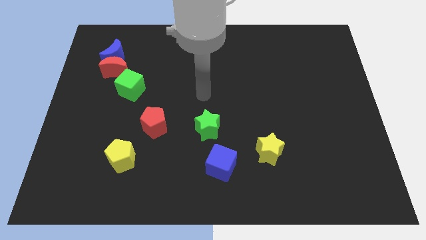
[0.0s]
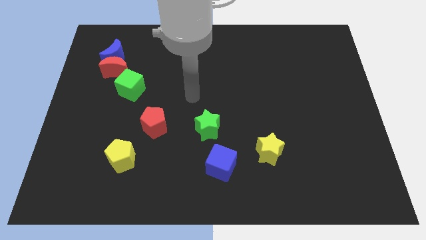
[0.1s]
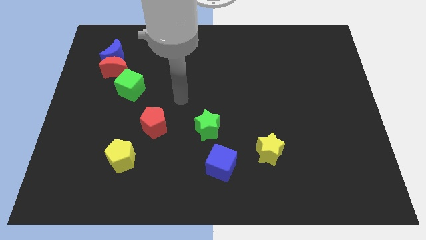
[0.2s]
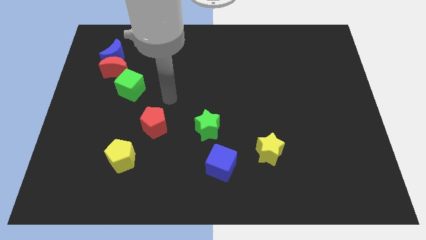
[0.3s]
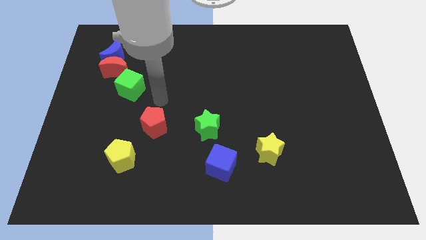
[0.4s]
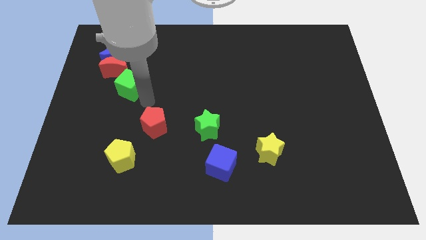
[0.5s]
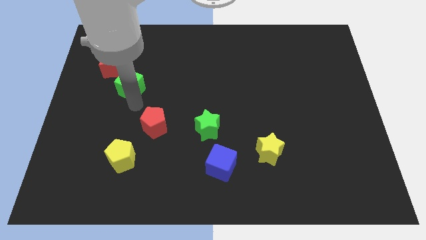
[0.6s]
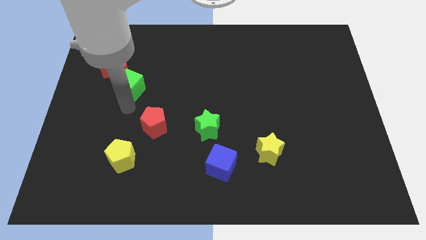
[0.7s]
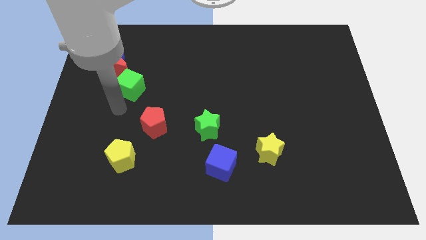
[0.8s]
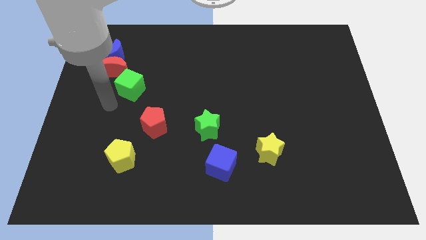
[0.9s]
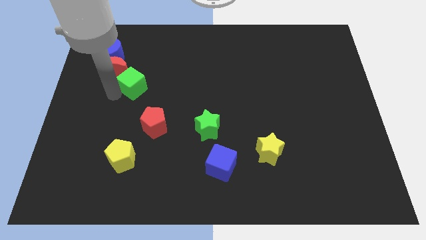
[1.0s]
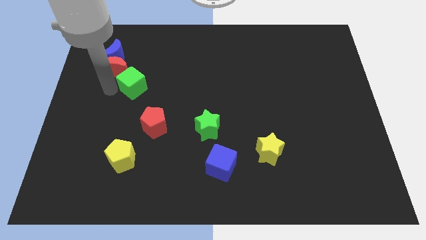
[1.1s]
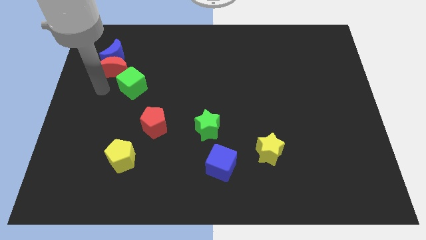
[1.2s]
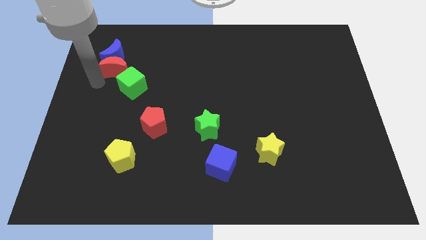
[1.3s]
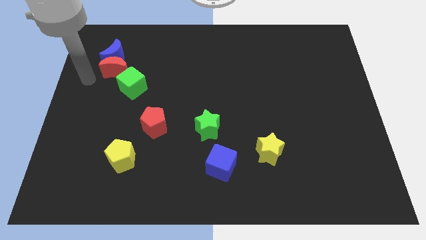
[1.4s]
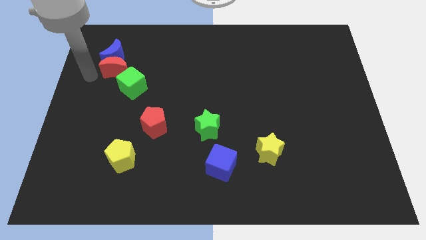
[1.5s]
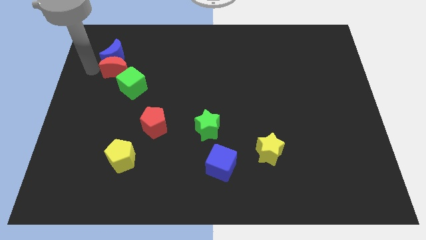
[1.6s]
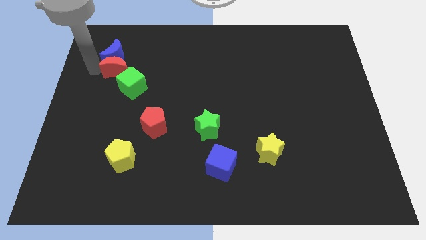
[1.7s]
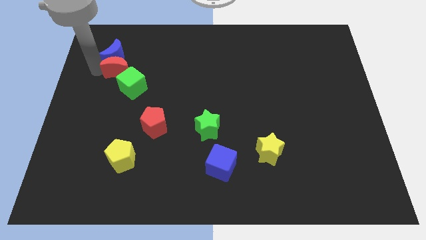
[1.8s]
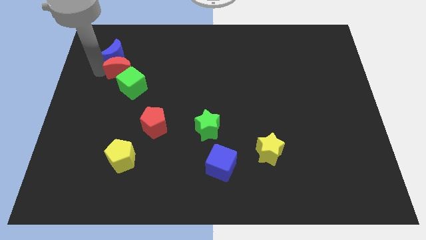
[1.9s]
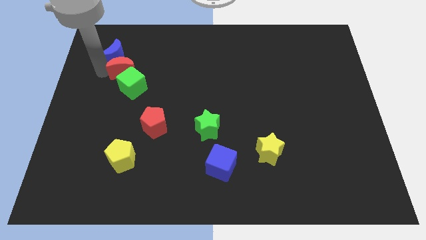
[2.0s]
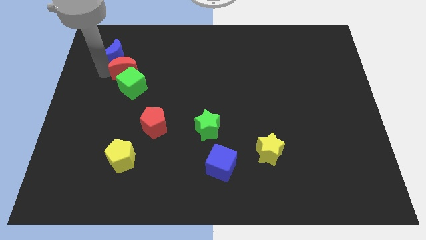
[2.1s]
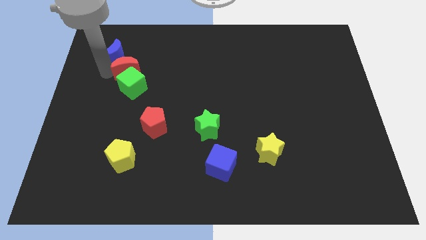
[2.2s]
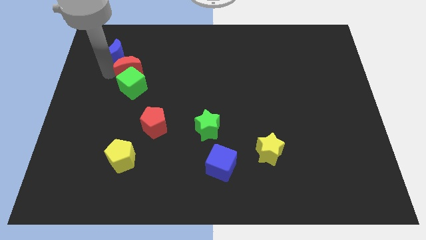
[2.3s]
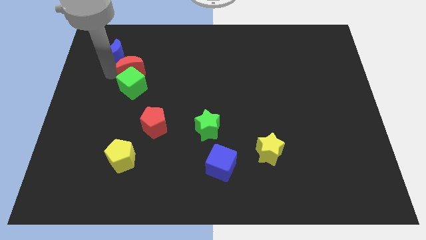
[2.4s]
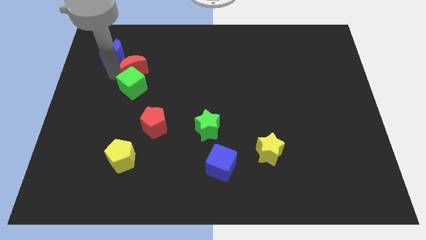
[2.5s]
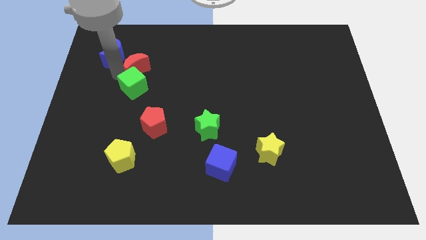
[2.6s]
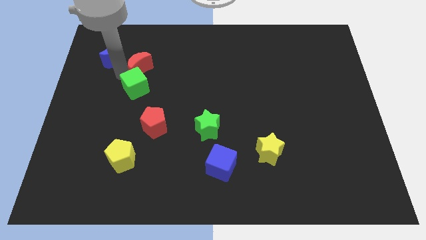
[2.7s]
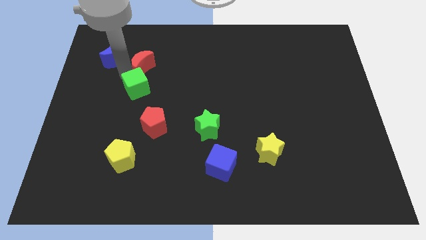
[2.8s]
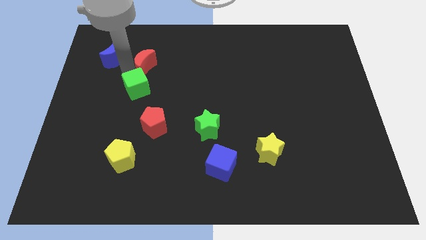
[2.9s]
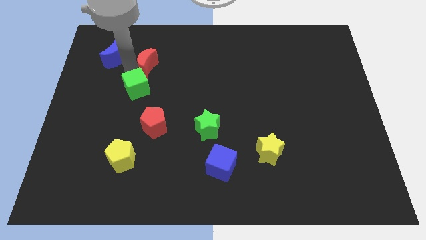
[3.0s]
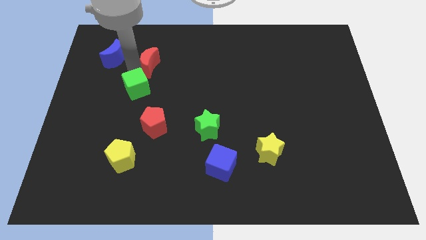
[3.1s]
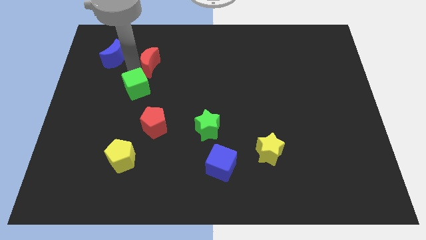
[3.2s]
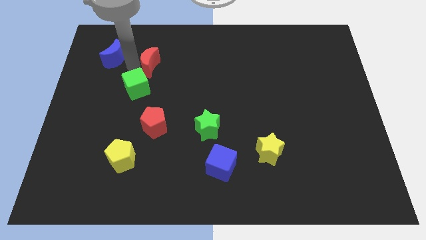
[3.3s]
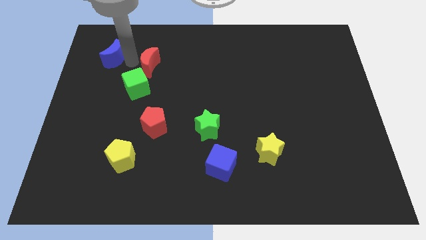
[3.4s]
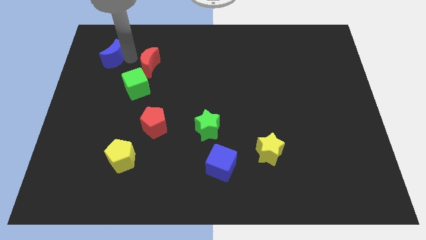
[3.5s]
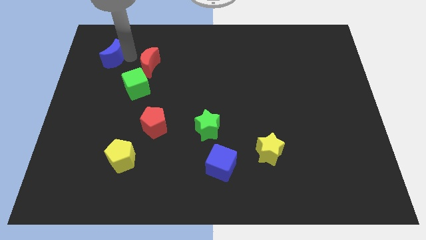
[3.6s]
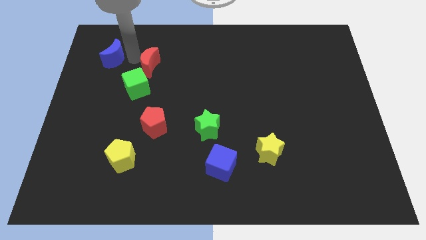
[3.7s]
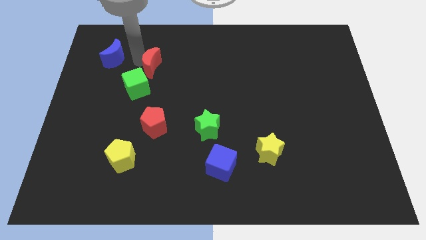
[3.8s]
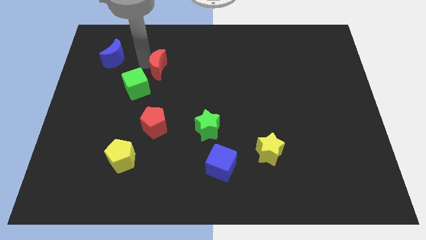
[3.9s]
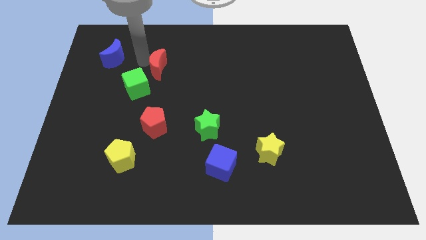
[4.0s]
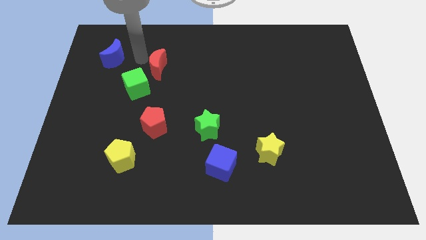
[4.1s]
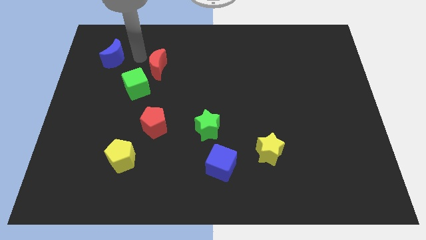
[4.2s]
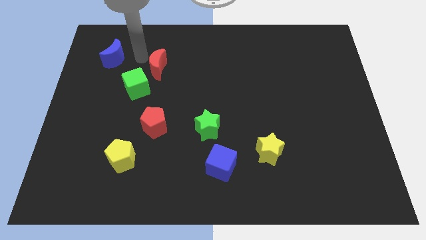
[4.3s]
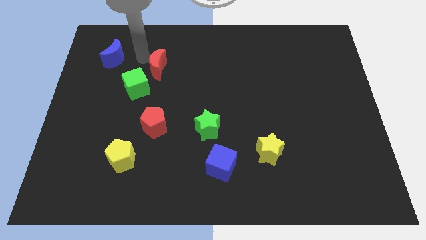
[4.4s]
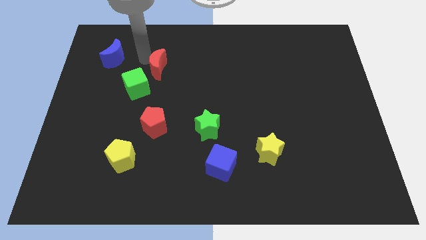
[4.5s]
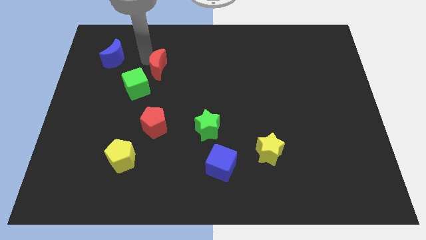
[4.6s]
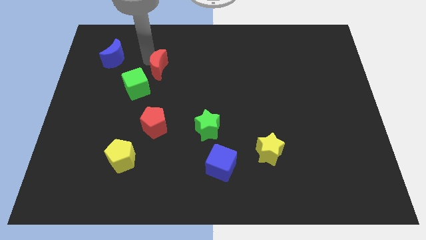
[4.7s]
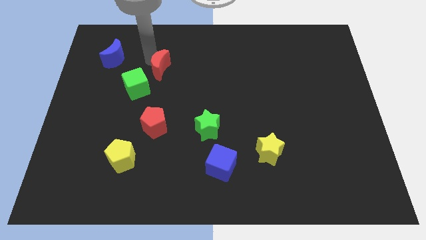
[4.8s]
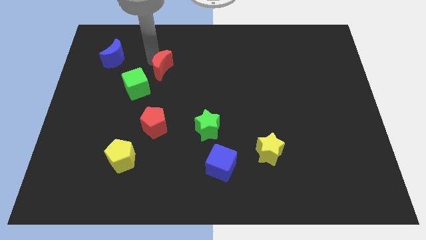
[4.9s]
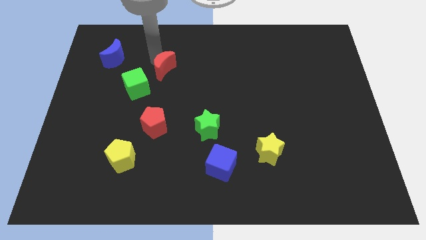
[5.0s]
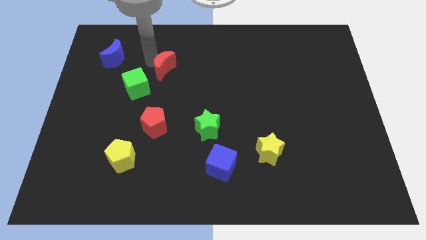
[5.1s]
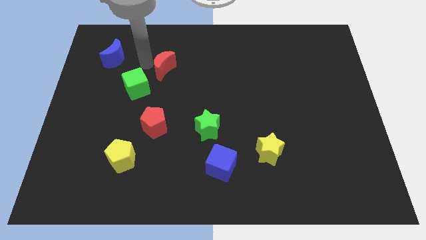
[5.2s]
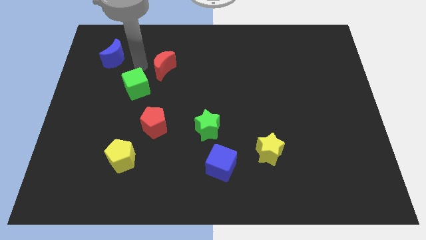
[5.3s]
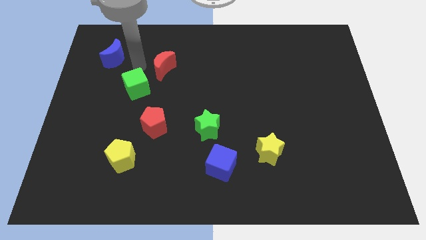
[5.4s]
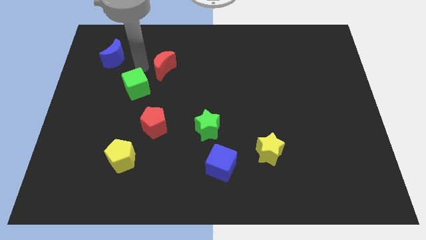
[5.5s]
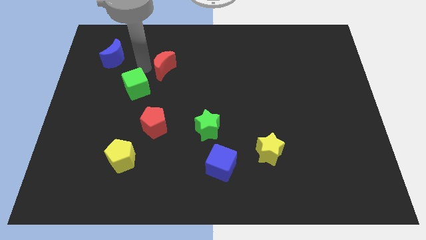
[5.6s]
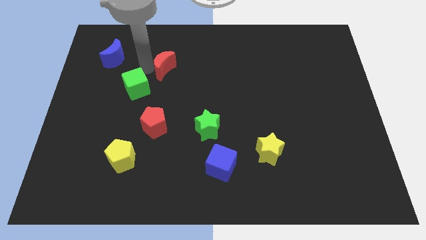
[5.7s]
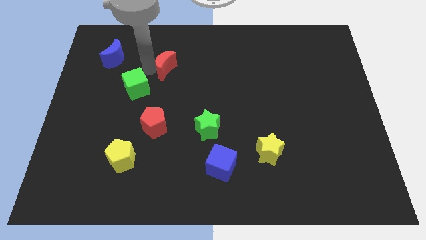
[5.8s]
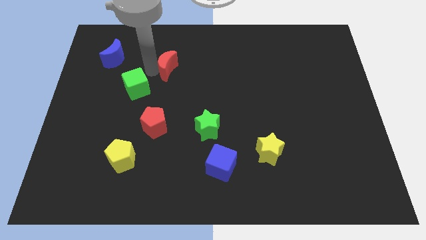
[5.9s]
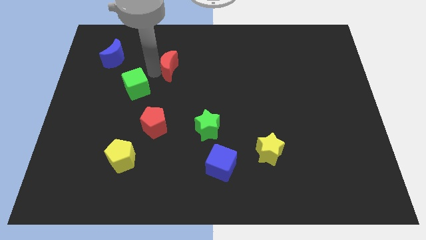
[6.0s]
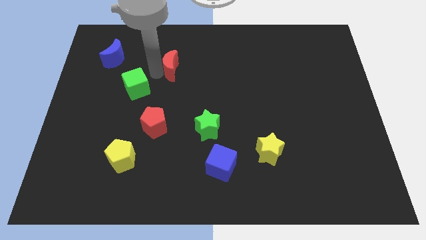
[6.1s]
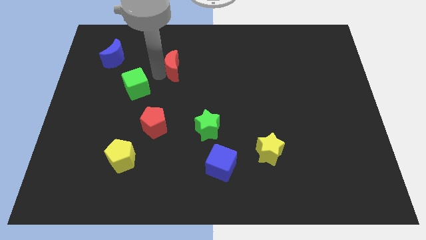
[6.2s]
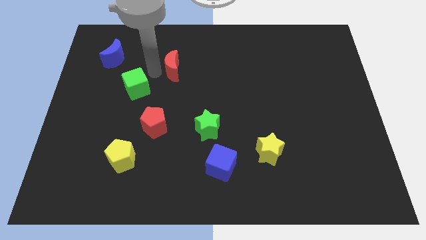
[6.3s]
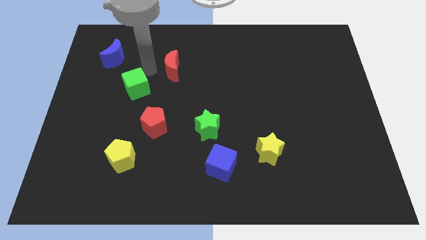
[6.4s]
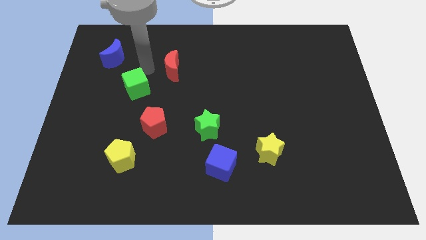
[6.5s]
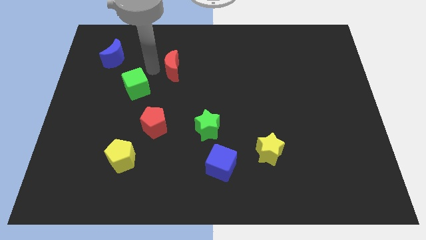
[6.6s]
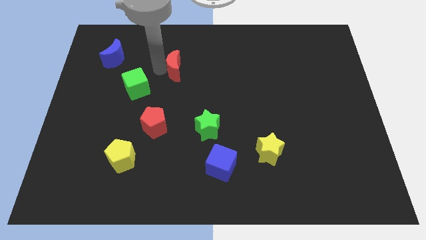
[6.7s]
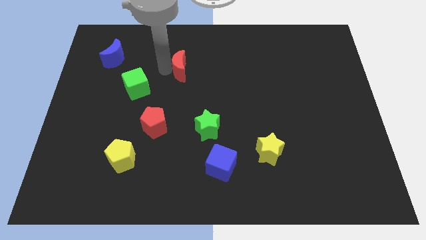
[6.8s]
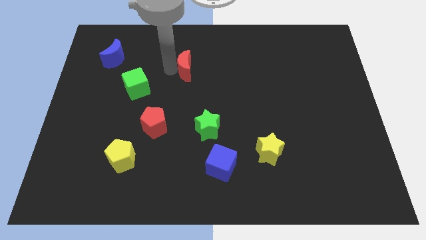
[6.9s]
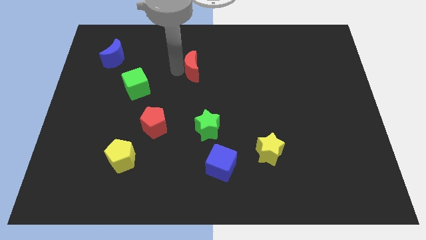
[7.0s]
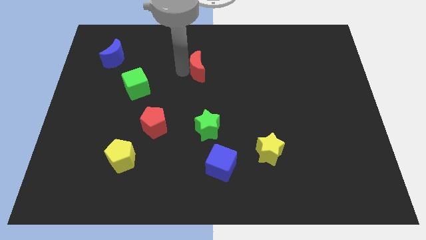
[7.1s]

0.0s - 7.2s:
slide the red moon right

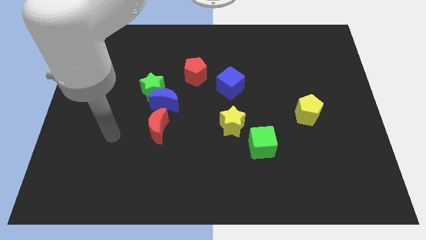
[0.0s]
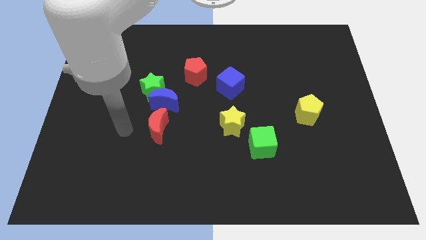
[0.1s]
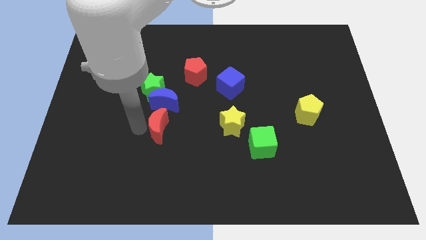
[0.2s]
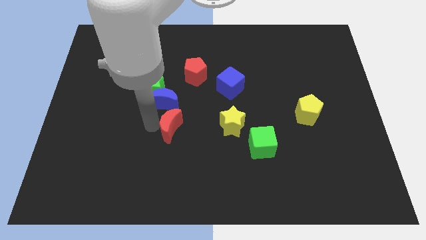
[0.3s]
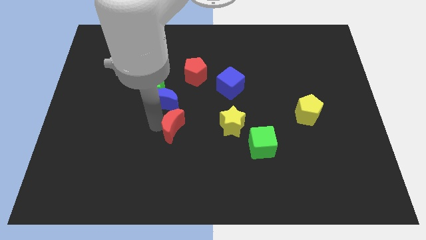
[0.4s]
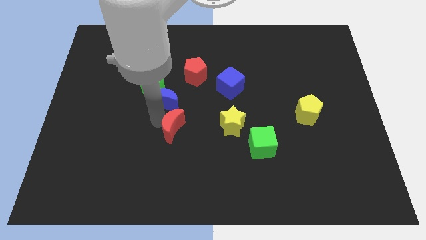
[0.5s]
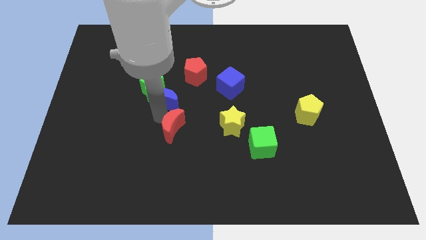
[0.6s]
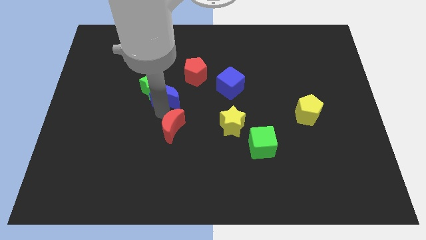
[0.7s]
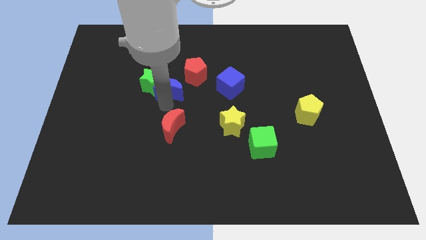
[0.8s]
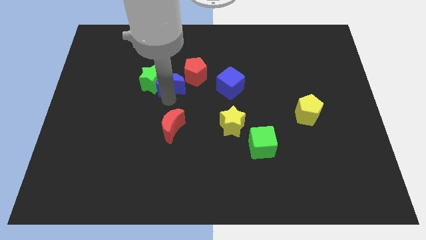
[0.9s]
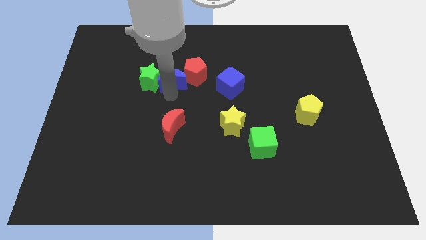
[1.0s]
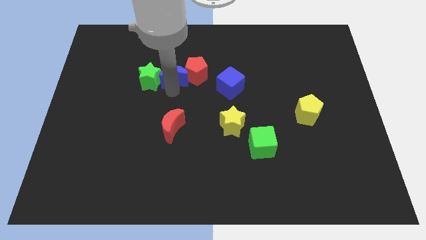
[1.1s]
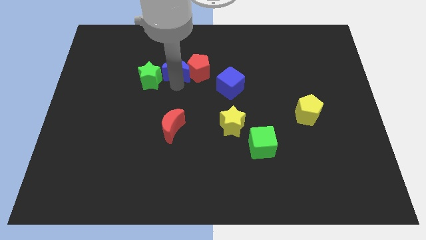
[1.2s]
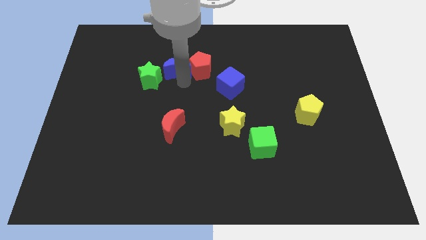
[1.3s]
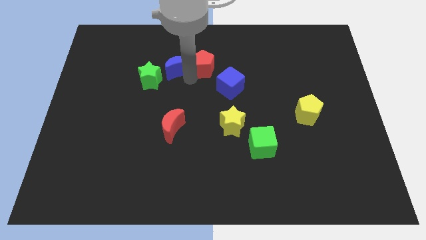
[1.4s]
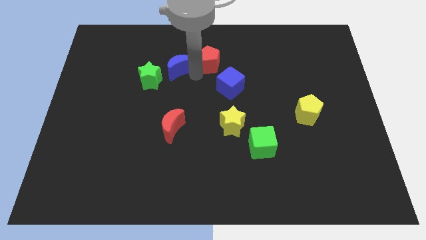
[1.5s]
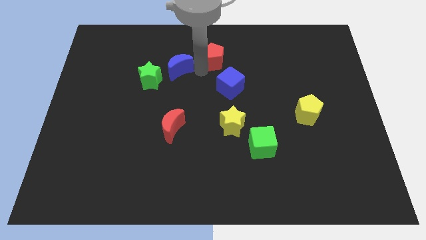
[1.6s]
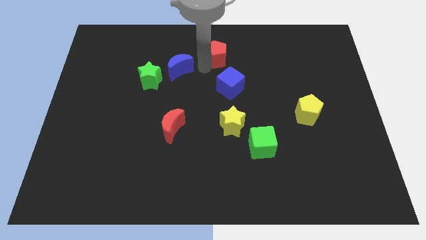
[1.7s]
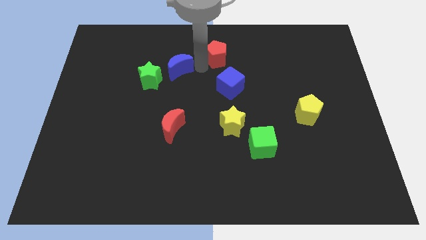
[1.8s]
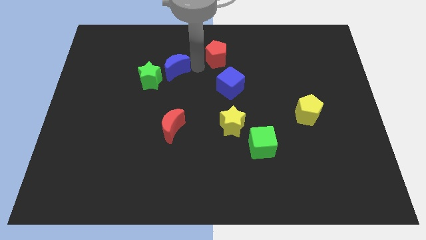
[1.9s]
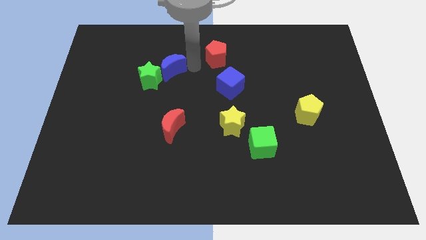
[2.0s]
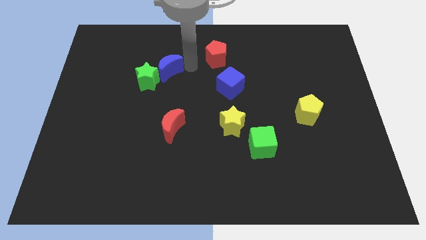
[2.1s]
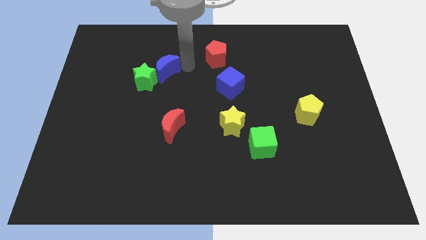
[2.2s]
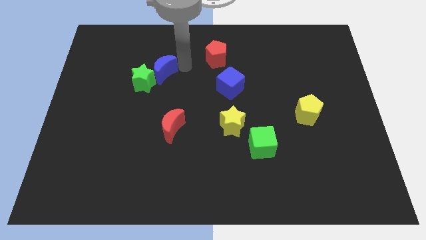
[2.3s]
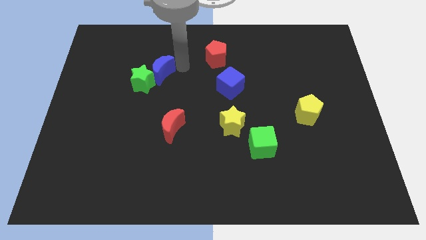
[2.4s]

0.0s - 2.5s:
slide the blue moon slightly up and left
